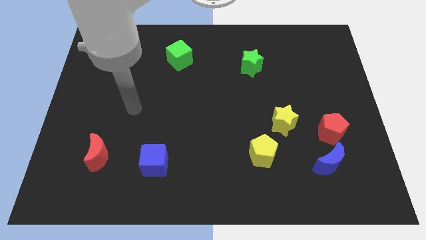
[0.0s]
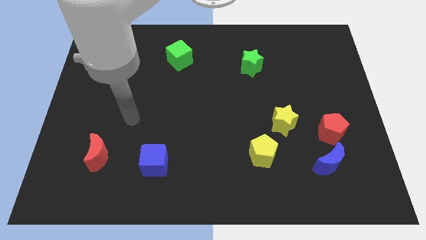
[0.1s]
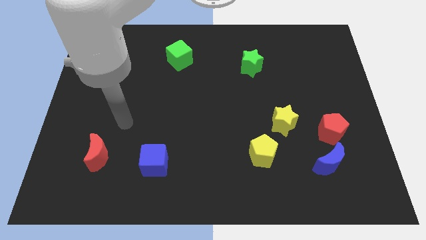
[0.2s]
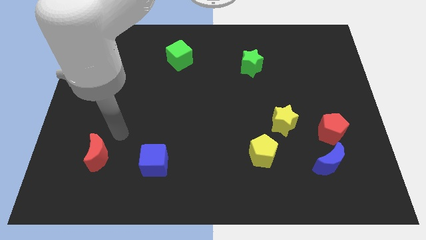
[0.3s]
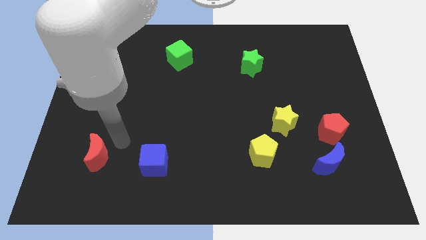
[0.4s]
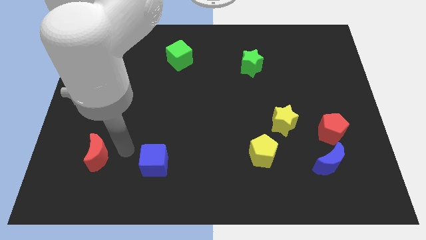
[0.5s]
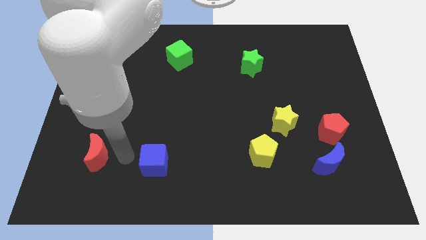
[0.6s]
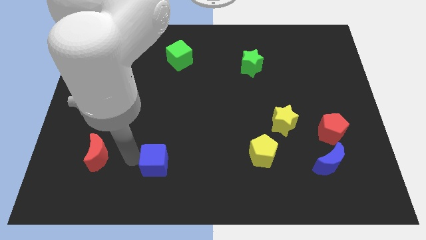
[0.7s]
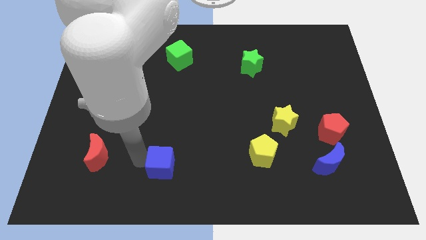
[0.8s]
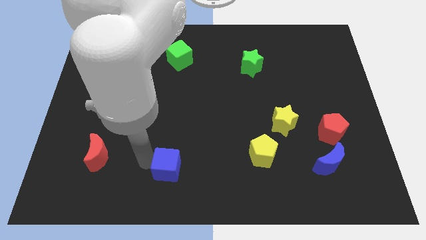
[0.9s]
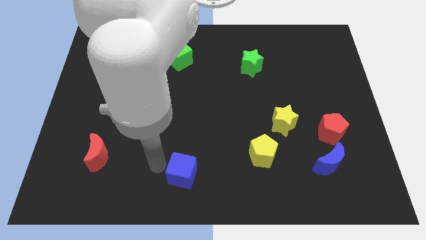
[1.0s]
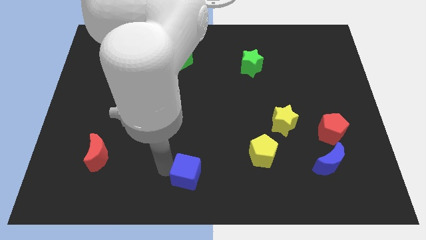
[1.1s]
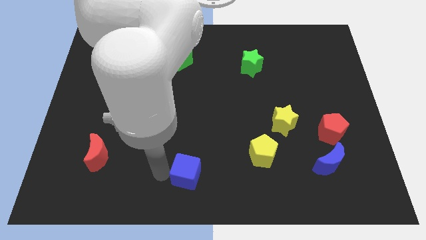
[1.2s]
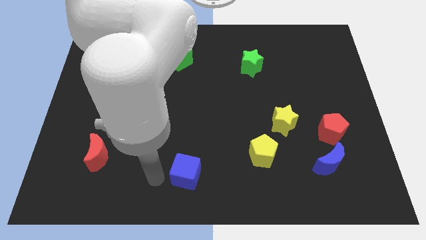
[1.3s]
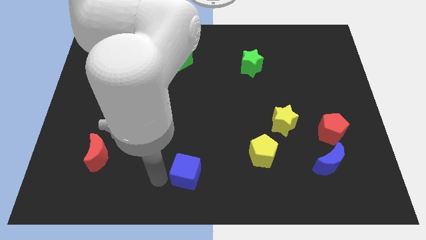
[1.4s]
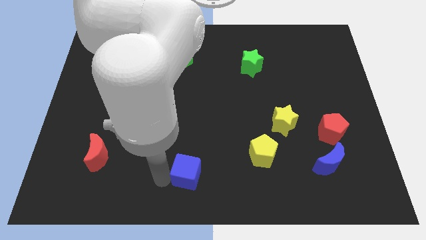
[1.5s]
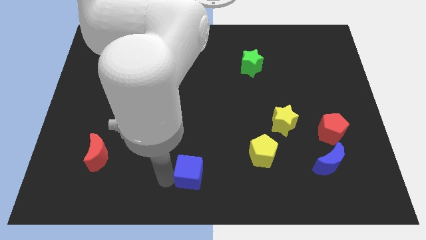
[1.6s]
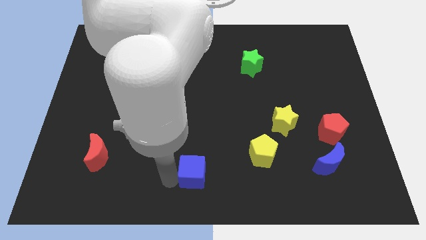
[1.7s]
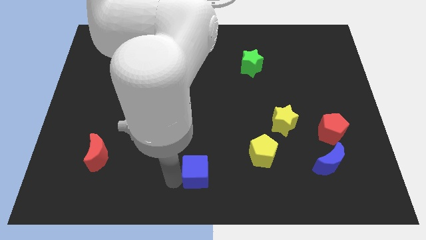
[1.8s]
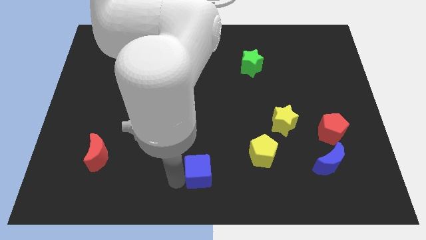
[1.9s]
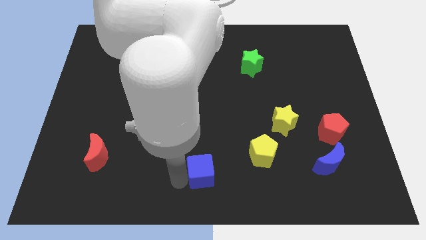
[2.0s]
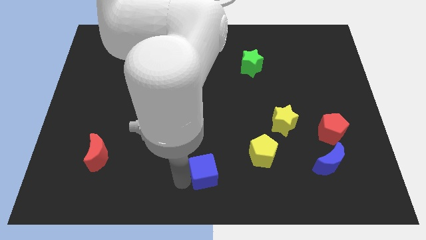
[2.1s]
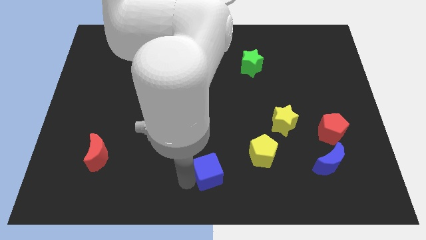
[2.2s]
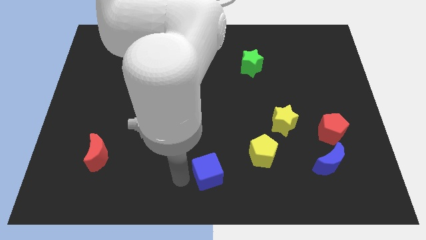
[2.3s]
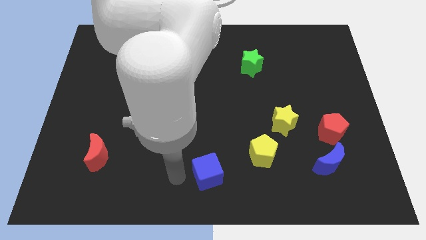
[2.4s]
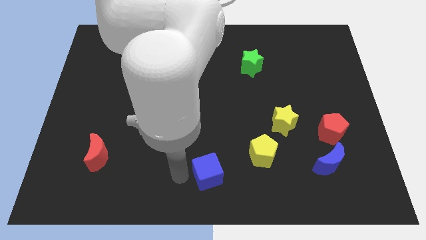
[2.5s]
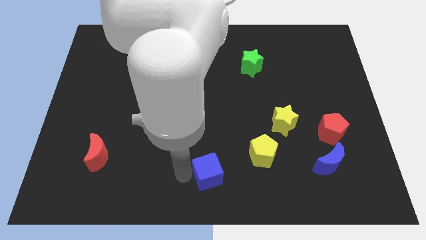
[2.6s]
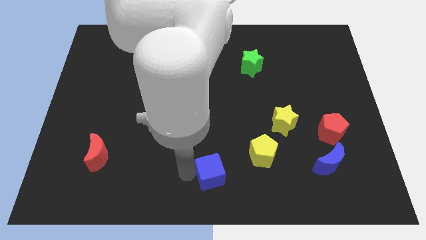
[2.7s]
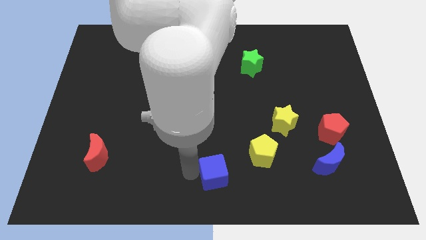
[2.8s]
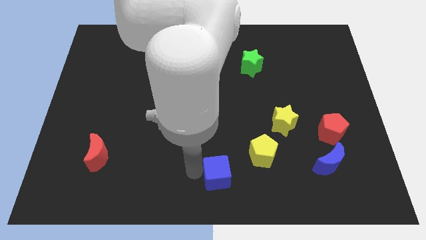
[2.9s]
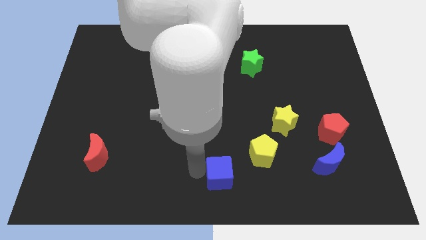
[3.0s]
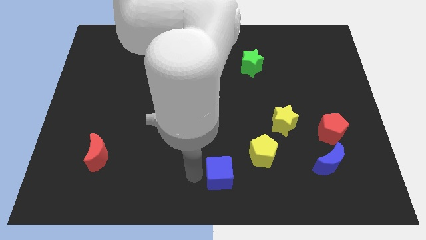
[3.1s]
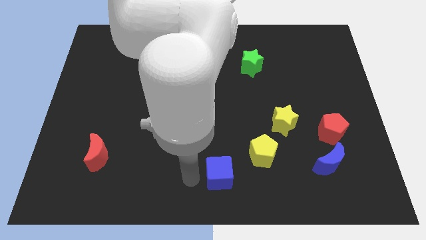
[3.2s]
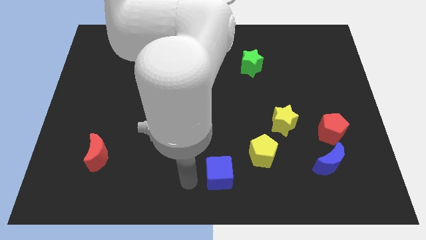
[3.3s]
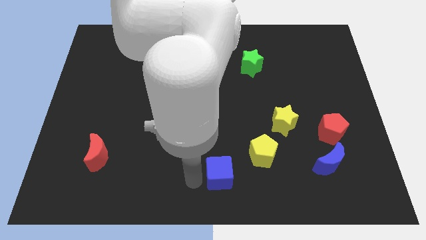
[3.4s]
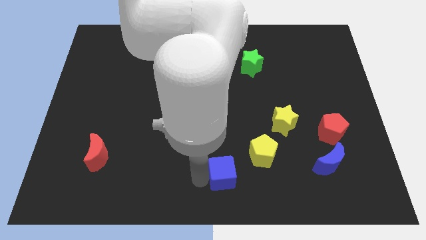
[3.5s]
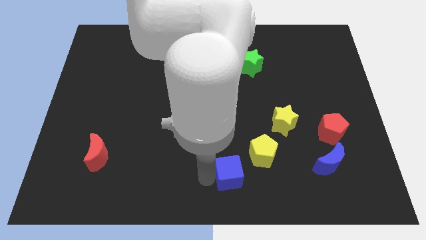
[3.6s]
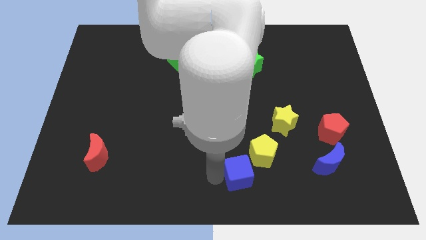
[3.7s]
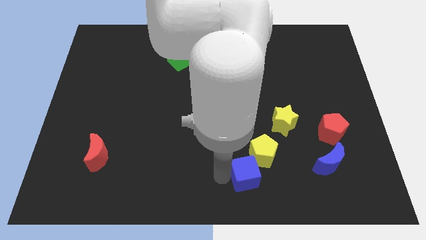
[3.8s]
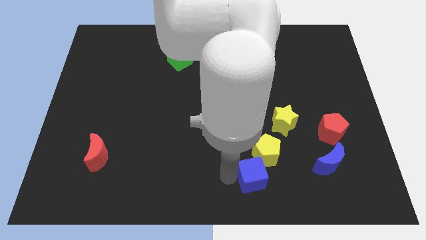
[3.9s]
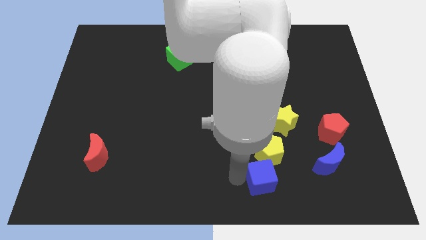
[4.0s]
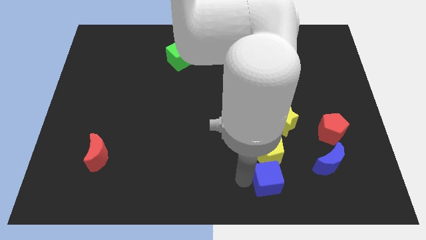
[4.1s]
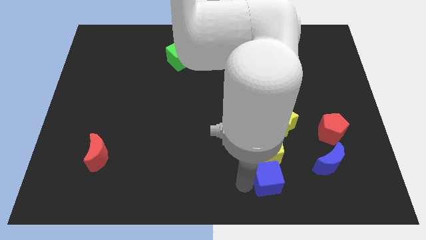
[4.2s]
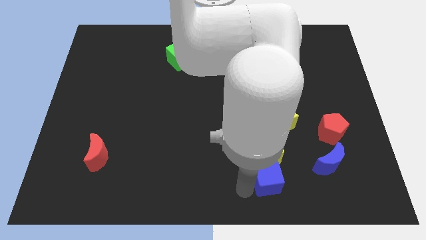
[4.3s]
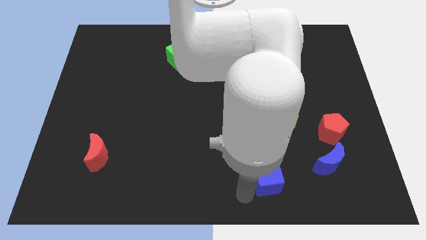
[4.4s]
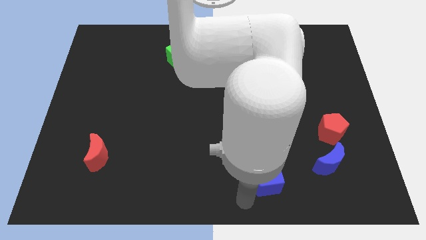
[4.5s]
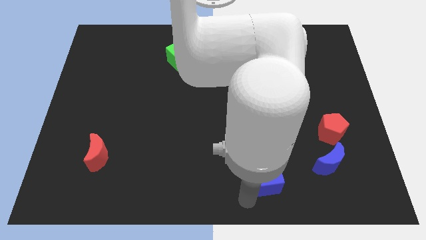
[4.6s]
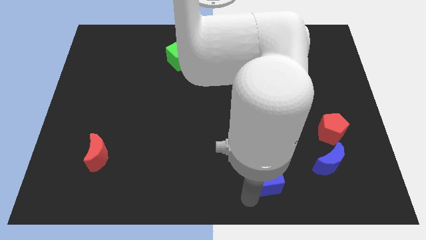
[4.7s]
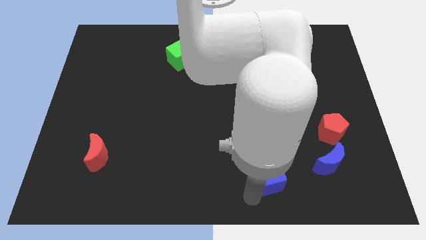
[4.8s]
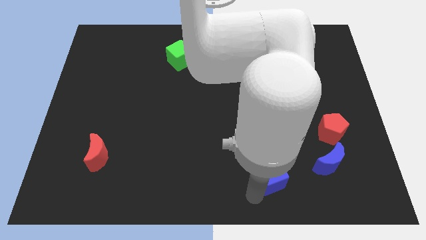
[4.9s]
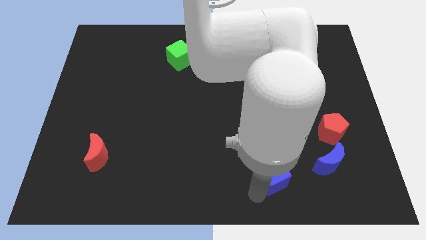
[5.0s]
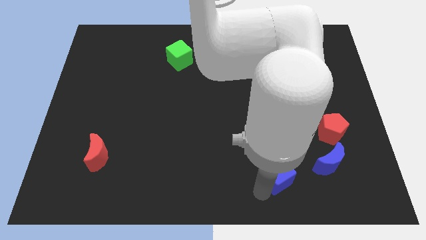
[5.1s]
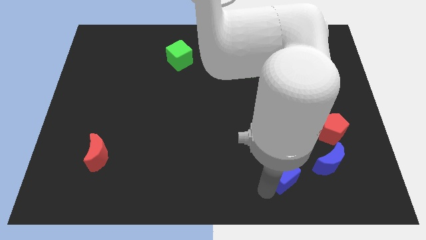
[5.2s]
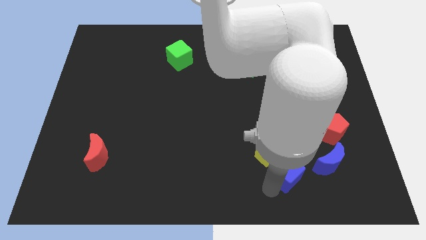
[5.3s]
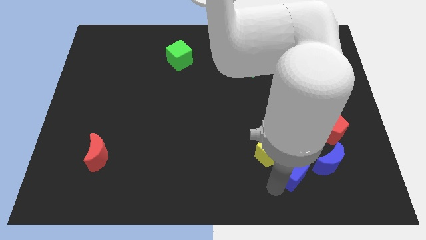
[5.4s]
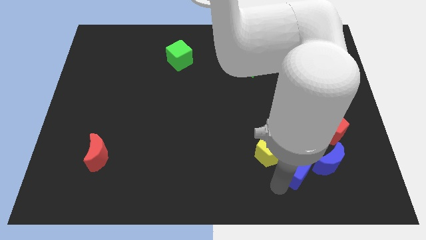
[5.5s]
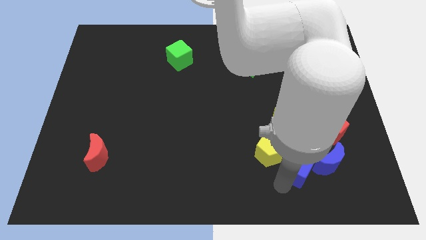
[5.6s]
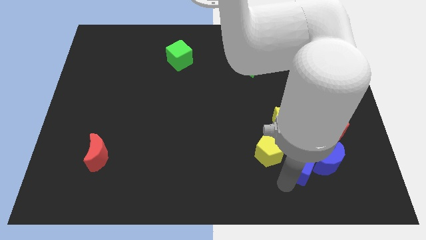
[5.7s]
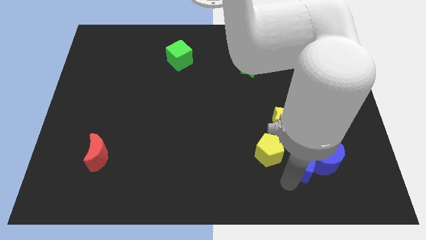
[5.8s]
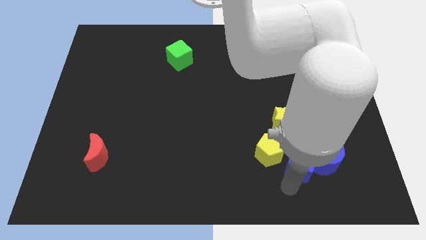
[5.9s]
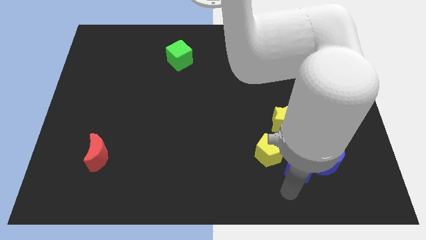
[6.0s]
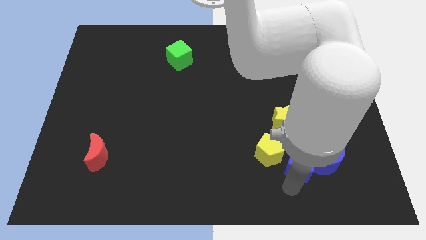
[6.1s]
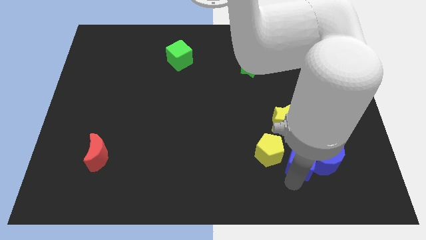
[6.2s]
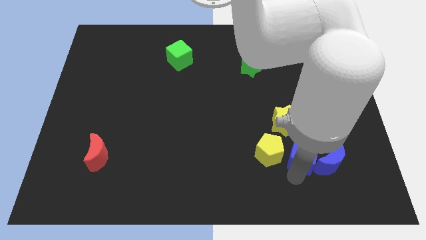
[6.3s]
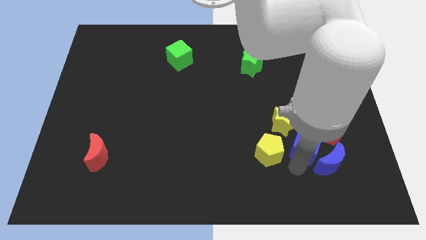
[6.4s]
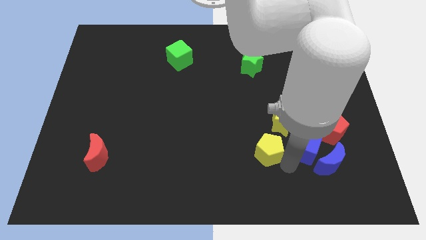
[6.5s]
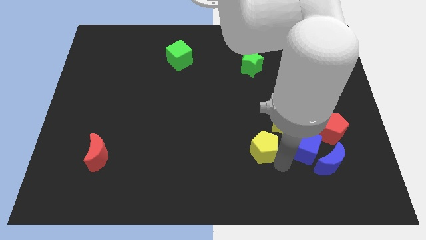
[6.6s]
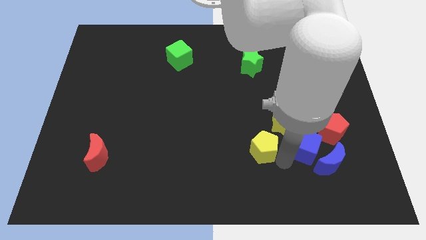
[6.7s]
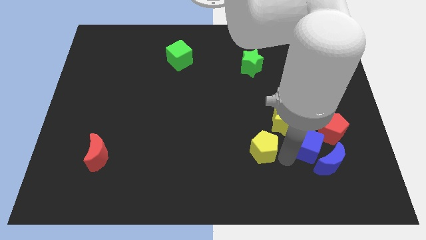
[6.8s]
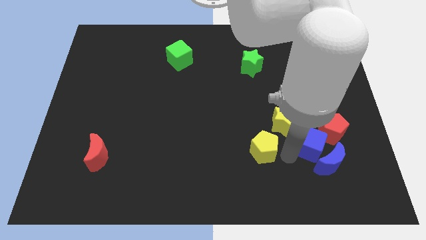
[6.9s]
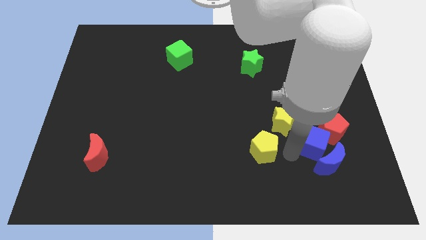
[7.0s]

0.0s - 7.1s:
slide the blue cube towards the red pentagon
